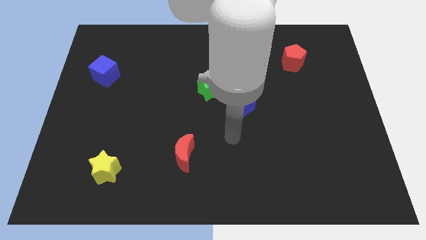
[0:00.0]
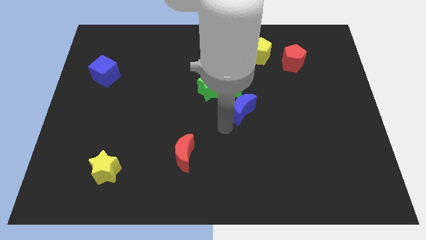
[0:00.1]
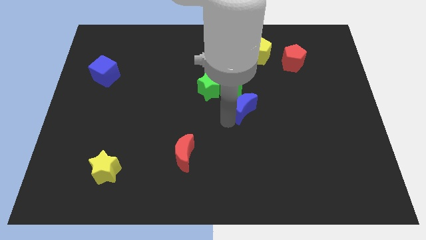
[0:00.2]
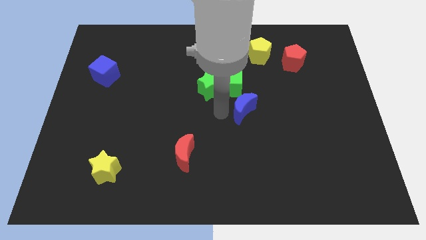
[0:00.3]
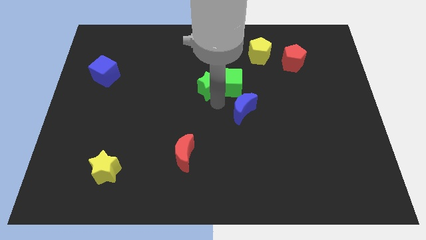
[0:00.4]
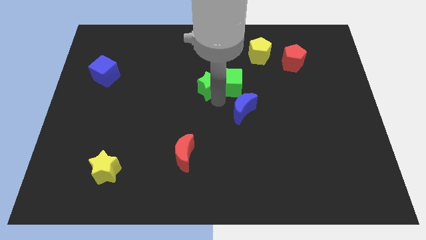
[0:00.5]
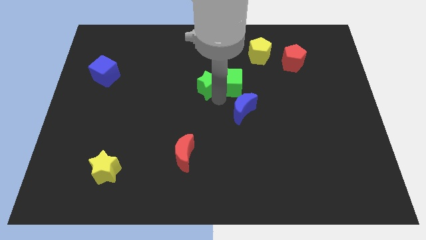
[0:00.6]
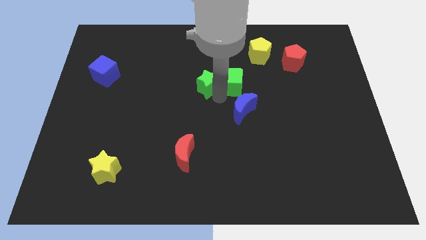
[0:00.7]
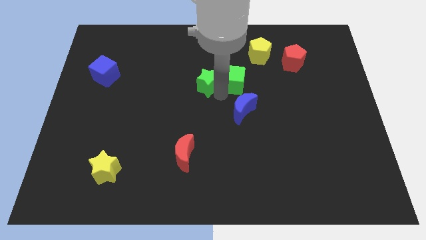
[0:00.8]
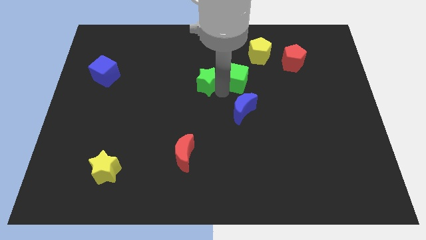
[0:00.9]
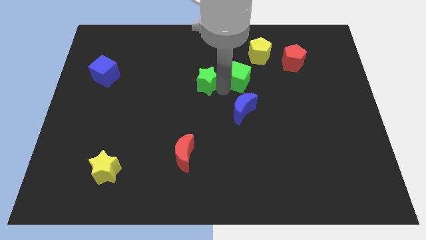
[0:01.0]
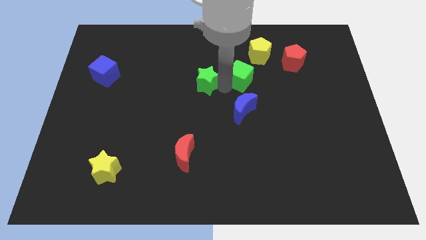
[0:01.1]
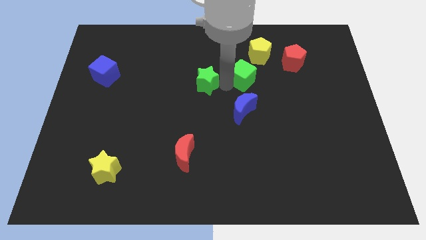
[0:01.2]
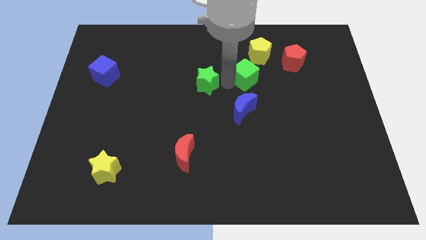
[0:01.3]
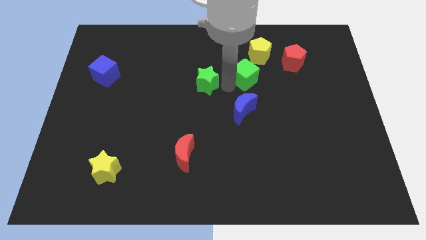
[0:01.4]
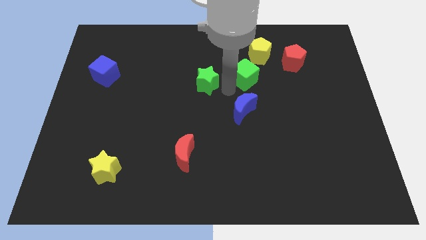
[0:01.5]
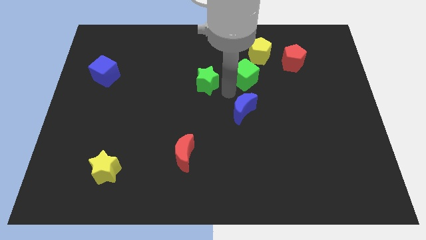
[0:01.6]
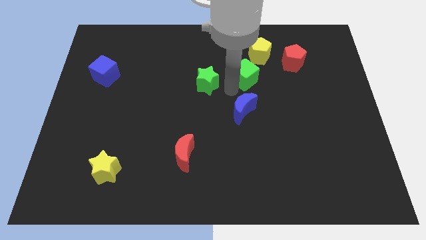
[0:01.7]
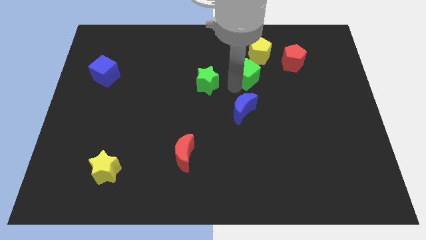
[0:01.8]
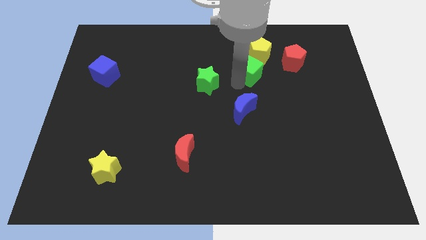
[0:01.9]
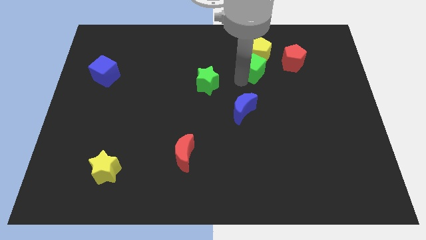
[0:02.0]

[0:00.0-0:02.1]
pull the green cube apart from the green star and blue moon

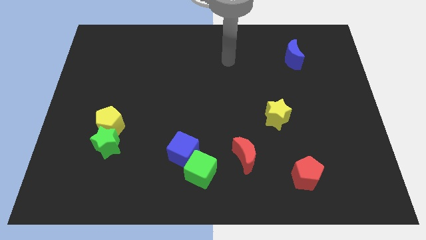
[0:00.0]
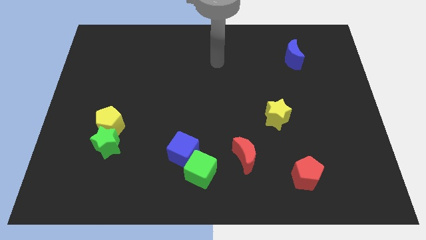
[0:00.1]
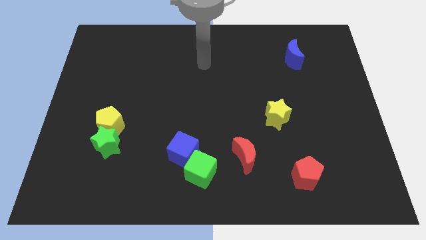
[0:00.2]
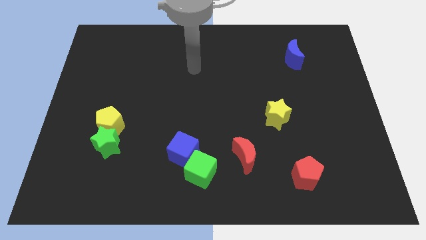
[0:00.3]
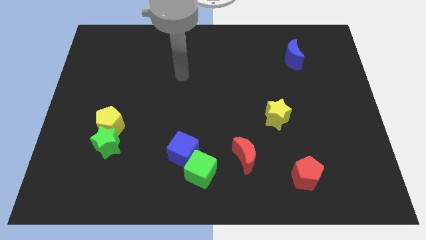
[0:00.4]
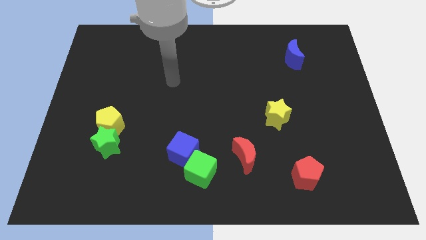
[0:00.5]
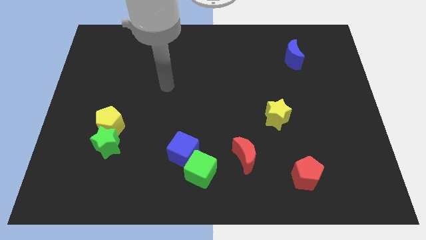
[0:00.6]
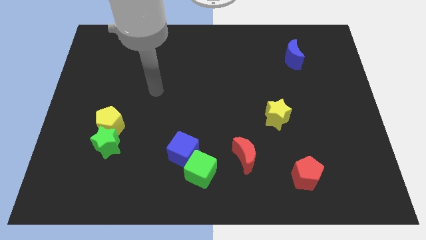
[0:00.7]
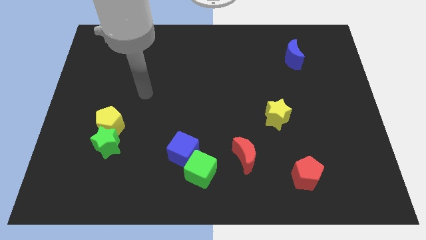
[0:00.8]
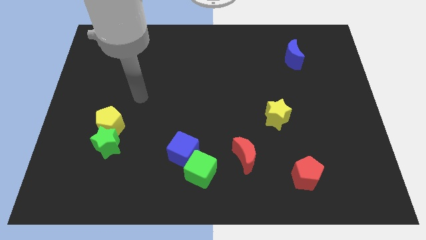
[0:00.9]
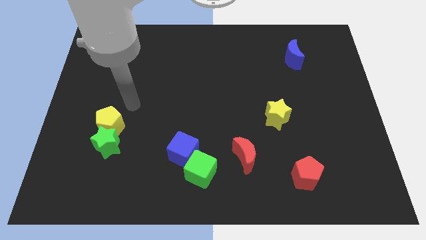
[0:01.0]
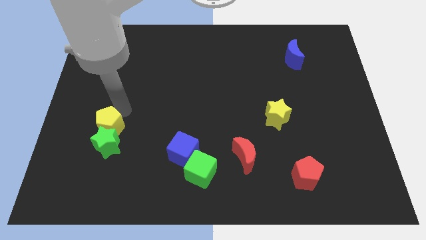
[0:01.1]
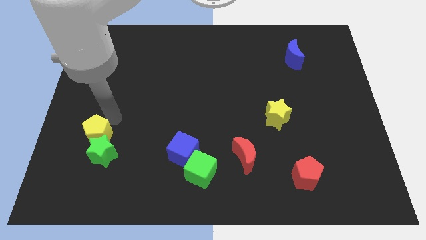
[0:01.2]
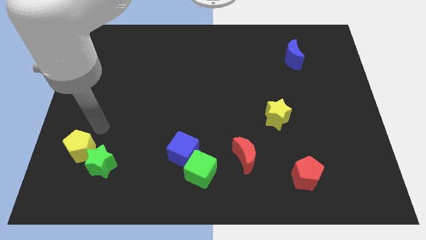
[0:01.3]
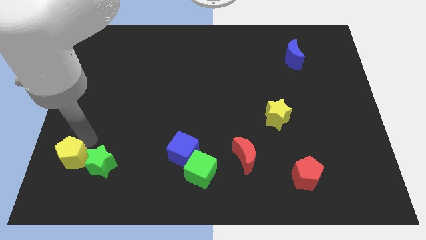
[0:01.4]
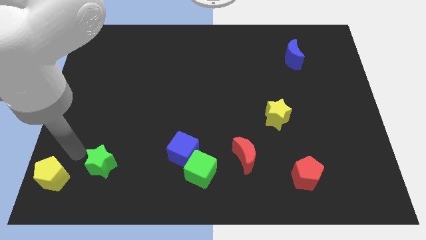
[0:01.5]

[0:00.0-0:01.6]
separate the green star from the yellow pentagon

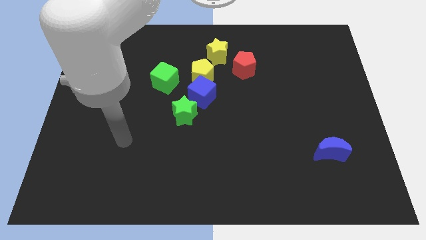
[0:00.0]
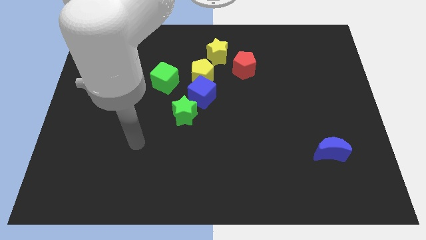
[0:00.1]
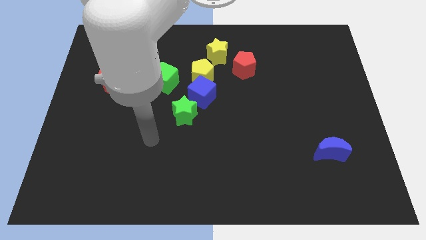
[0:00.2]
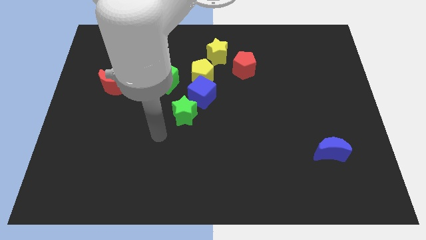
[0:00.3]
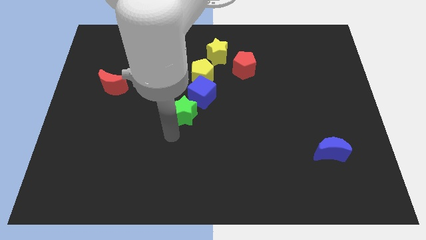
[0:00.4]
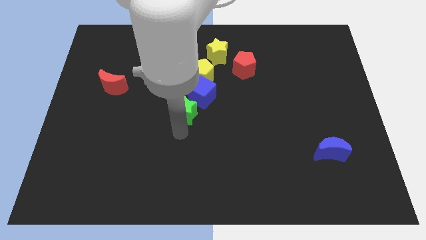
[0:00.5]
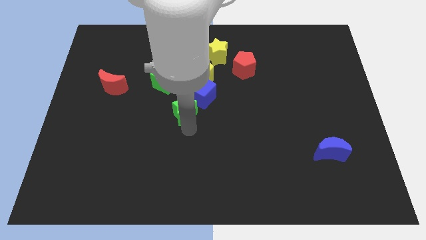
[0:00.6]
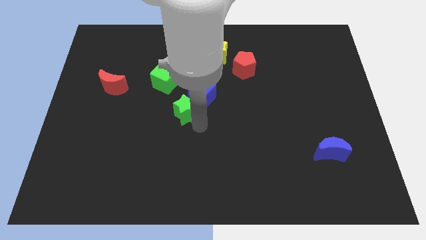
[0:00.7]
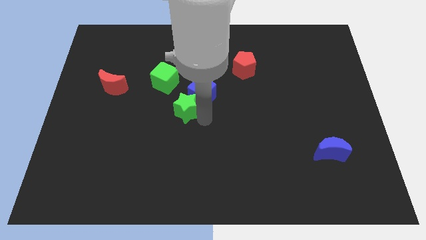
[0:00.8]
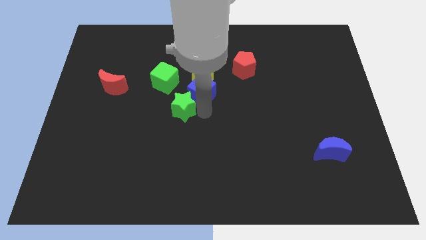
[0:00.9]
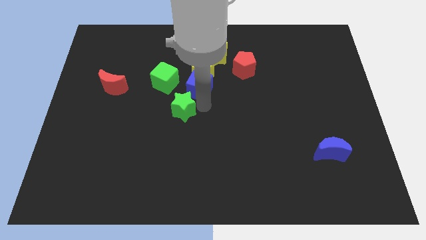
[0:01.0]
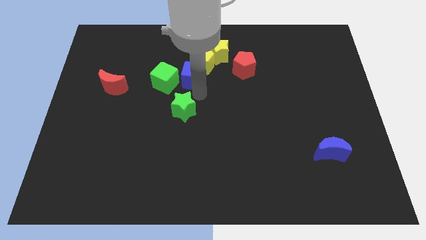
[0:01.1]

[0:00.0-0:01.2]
move the green star away from the blue cube

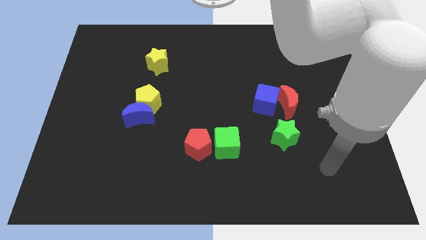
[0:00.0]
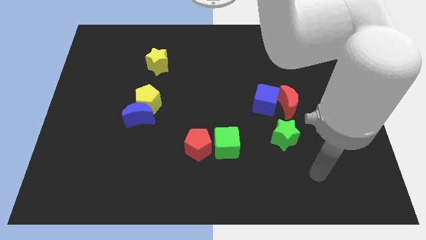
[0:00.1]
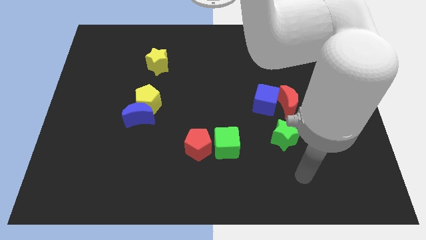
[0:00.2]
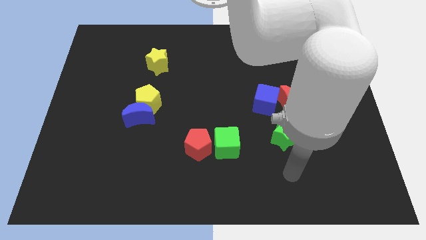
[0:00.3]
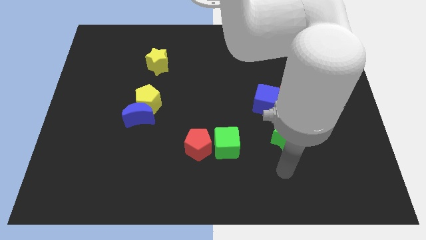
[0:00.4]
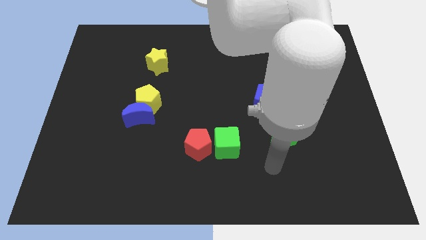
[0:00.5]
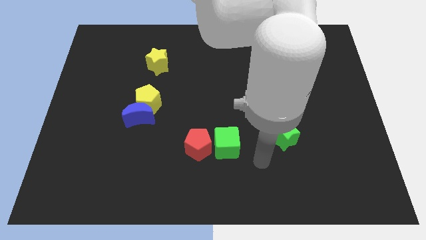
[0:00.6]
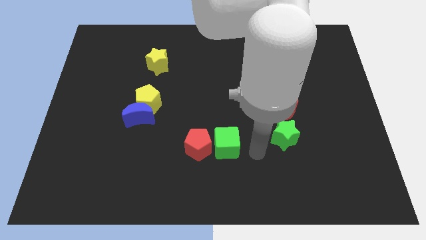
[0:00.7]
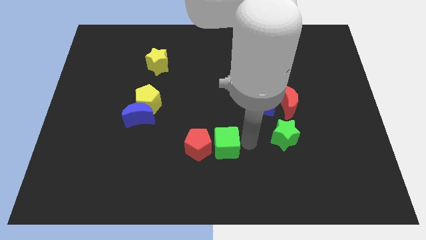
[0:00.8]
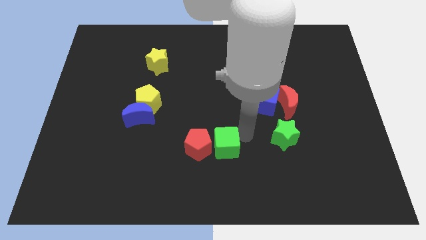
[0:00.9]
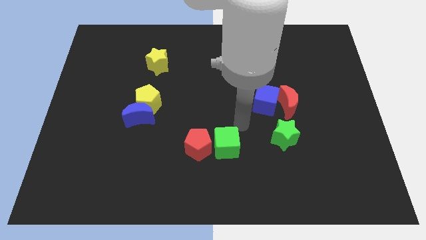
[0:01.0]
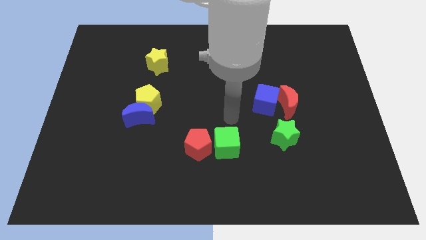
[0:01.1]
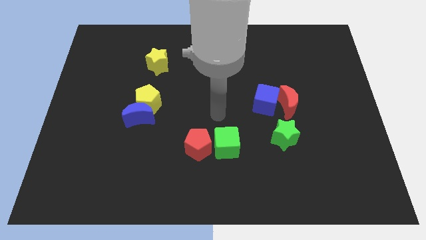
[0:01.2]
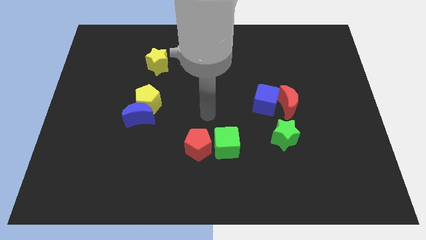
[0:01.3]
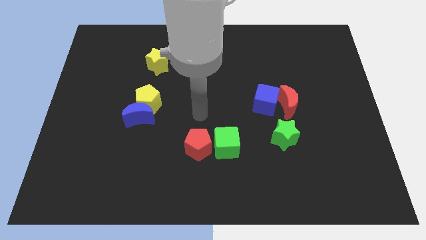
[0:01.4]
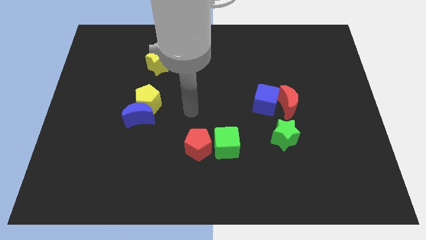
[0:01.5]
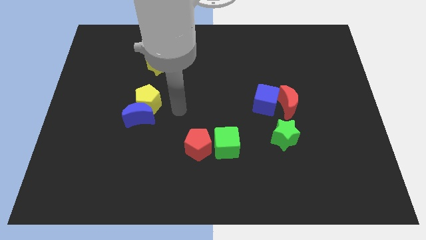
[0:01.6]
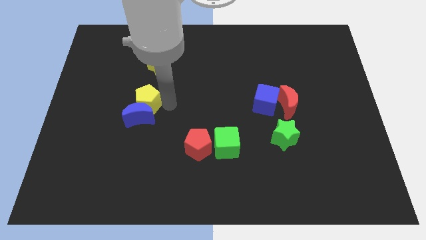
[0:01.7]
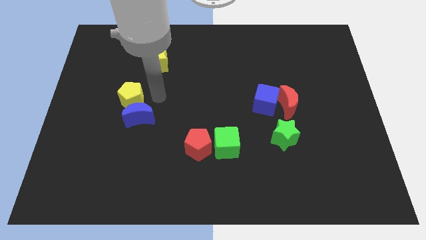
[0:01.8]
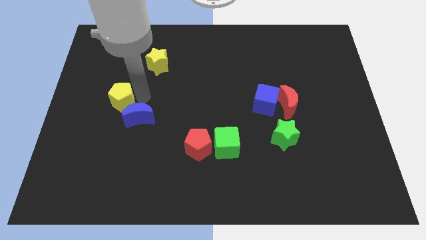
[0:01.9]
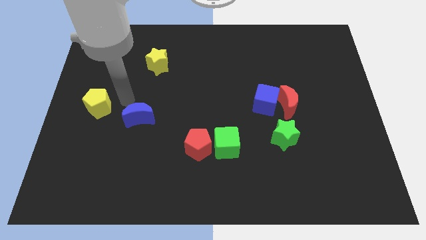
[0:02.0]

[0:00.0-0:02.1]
pull the blue moon apart from the yellow pentagon

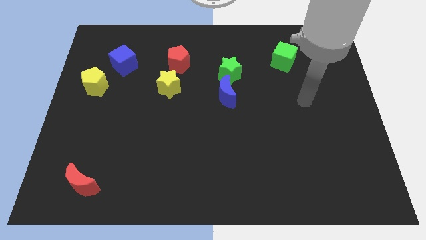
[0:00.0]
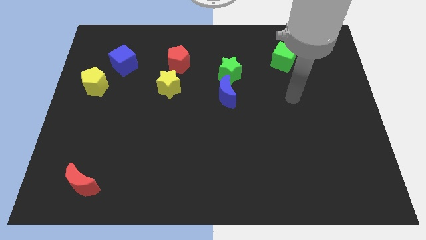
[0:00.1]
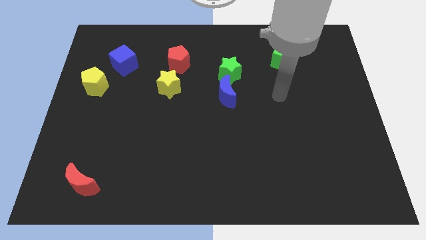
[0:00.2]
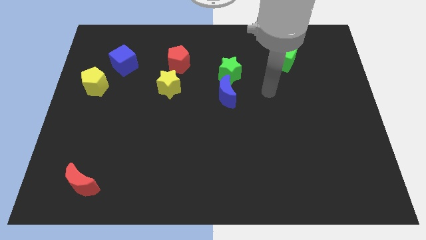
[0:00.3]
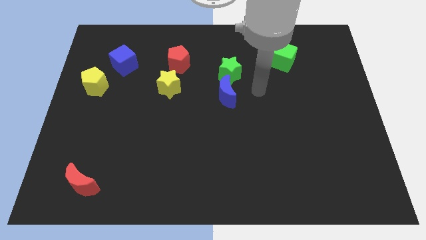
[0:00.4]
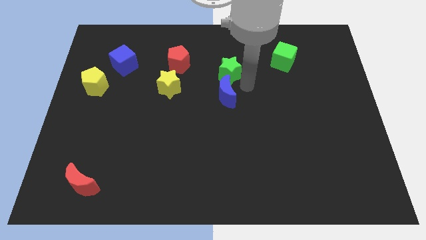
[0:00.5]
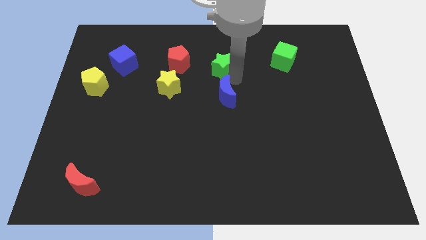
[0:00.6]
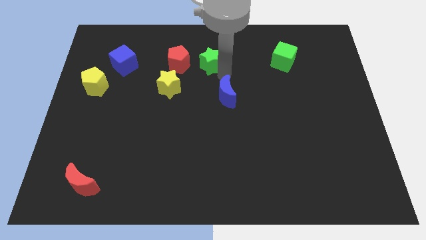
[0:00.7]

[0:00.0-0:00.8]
pull the blue moon apart from the green star

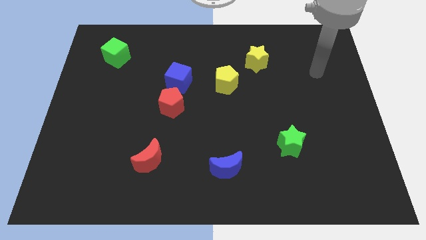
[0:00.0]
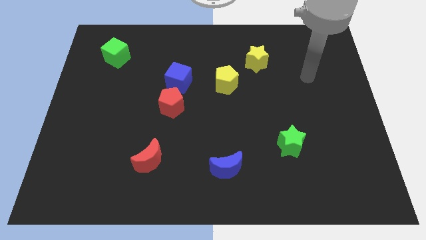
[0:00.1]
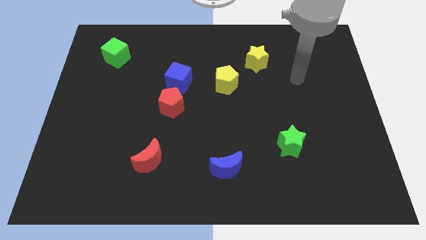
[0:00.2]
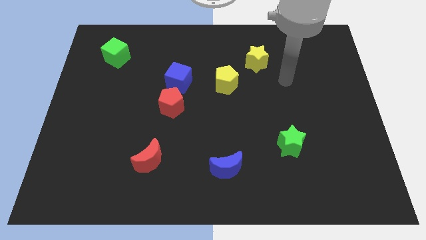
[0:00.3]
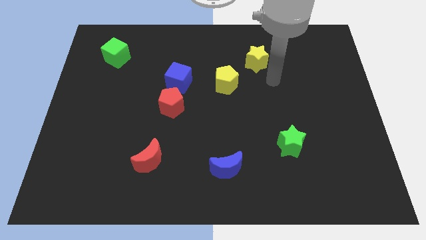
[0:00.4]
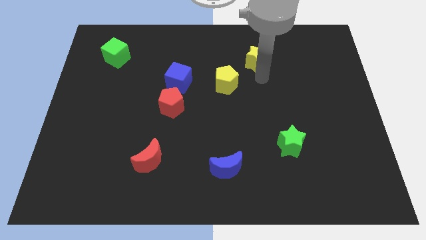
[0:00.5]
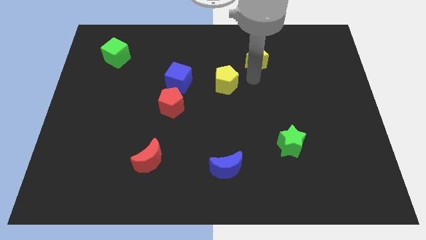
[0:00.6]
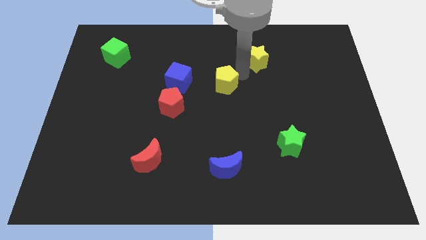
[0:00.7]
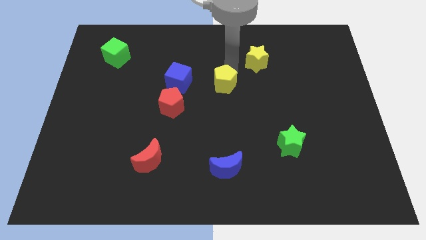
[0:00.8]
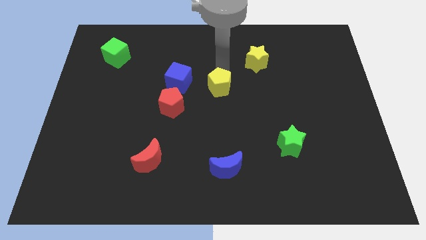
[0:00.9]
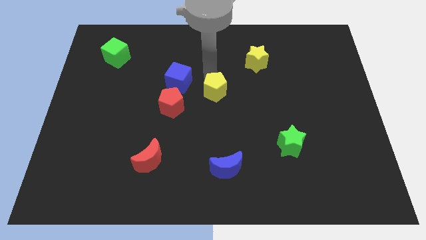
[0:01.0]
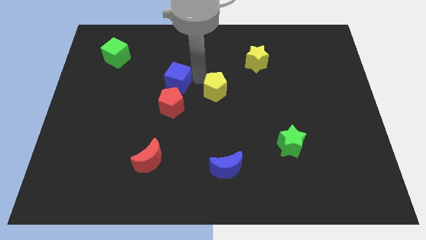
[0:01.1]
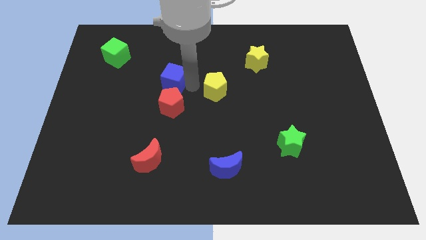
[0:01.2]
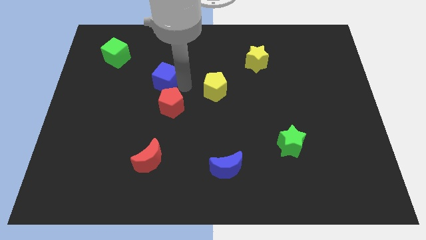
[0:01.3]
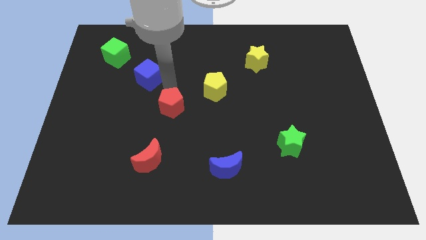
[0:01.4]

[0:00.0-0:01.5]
move the red pentagon away from the blue cube

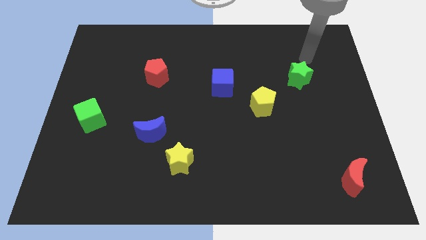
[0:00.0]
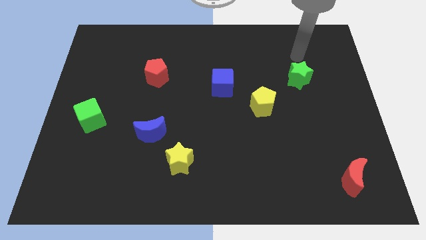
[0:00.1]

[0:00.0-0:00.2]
move the blue moon away from the yellow star
